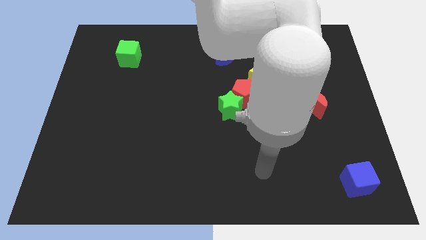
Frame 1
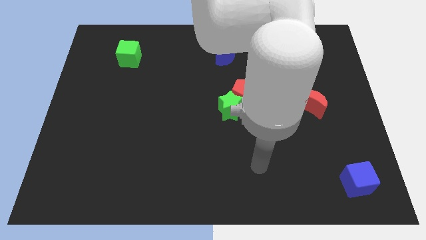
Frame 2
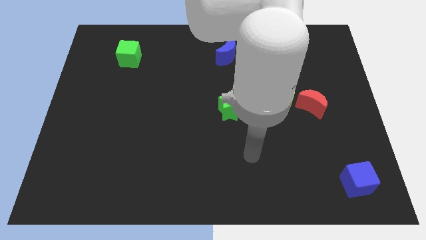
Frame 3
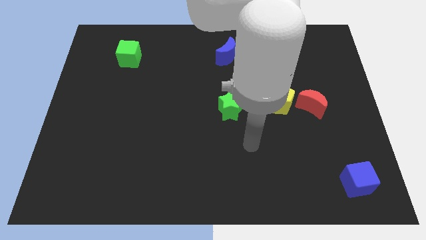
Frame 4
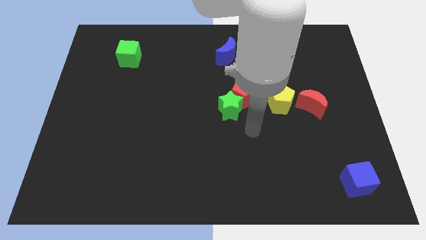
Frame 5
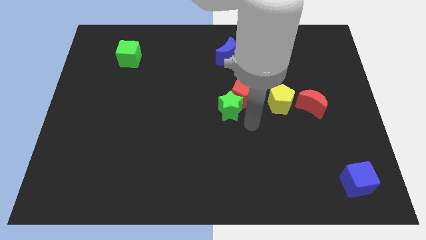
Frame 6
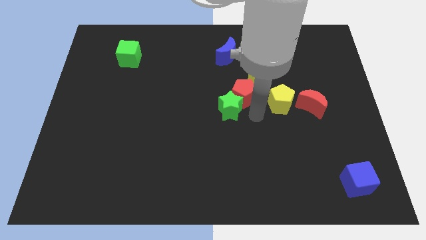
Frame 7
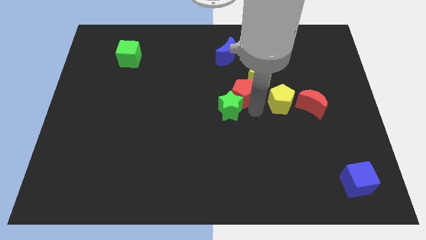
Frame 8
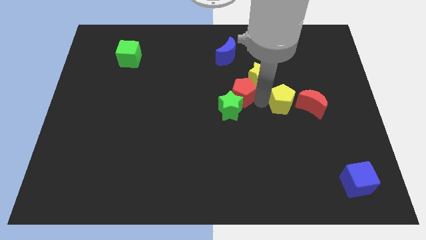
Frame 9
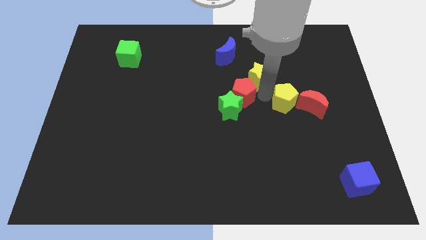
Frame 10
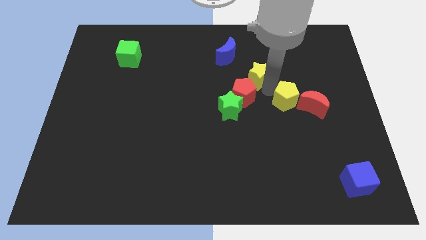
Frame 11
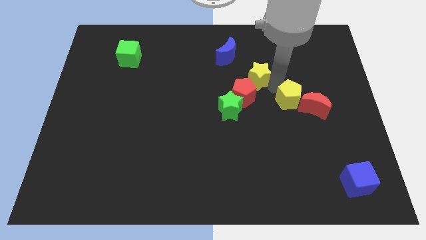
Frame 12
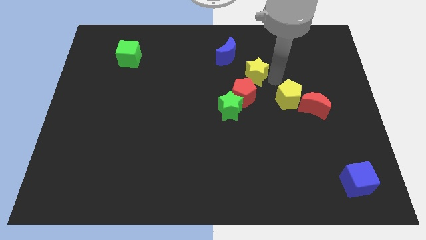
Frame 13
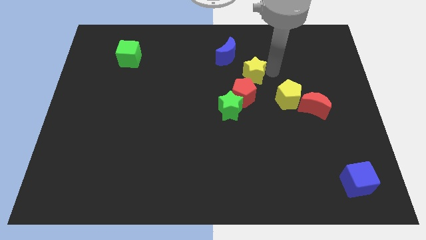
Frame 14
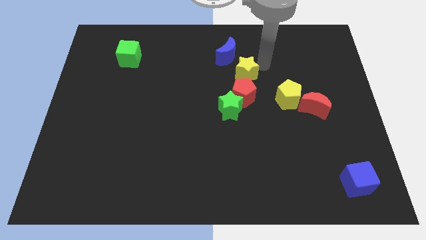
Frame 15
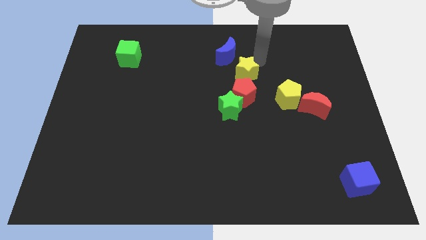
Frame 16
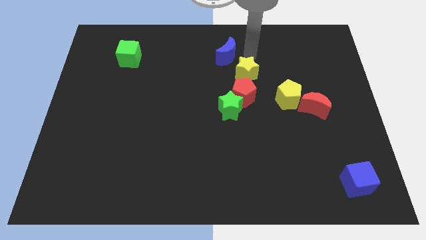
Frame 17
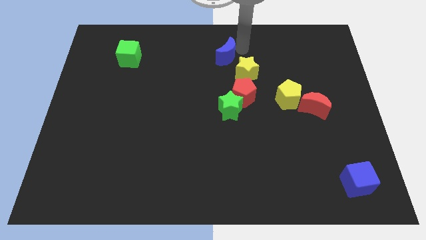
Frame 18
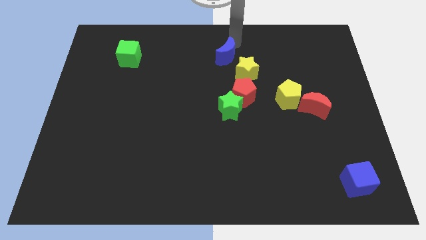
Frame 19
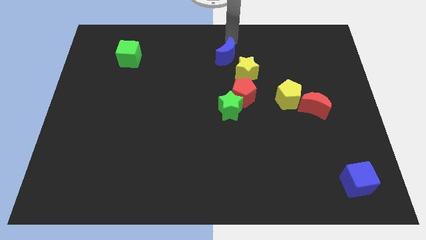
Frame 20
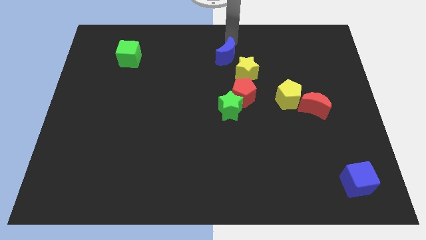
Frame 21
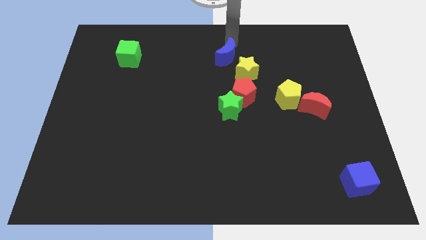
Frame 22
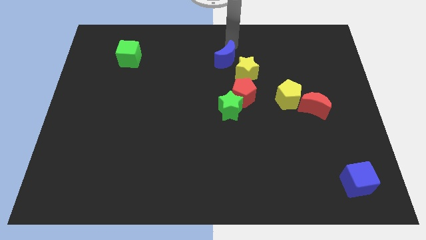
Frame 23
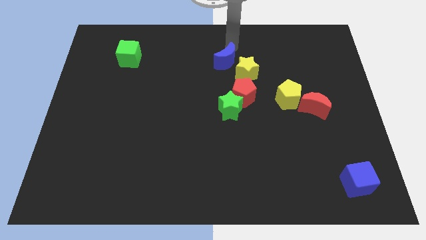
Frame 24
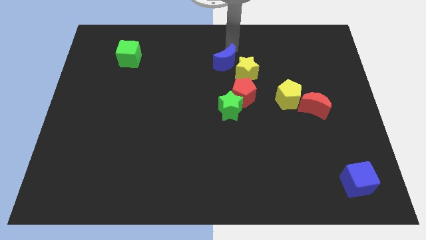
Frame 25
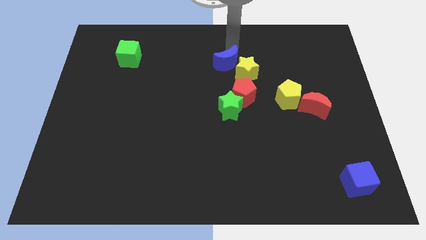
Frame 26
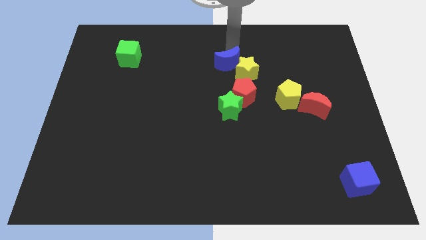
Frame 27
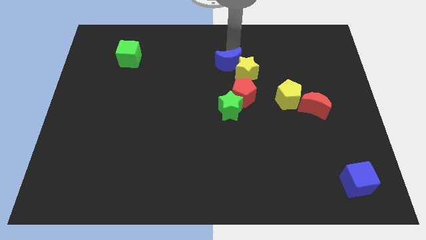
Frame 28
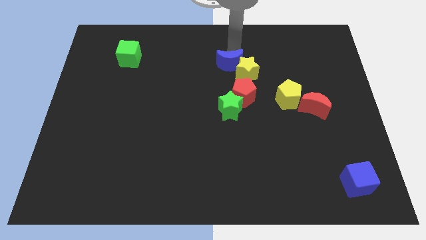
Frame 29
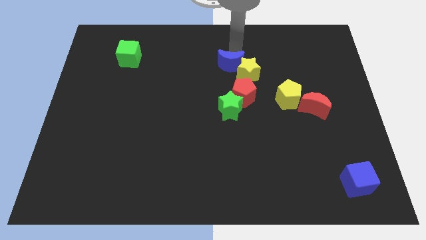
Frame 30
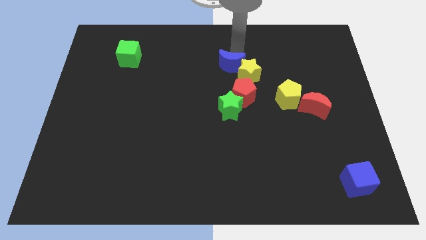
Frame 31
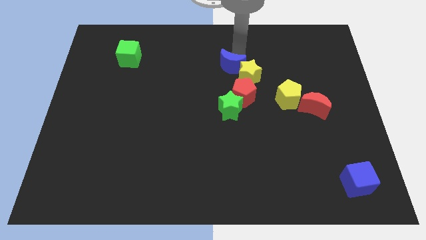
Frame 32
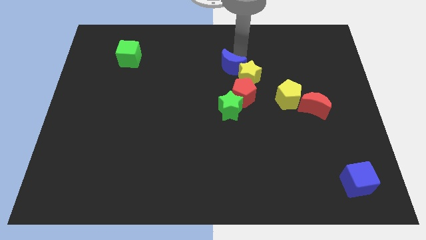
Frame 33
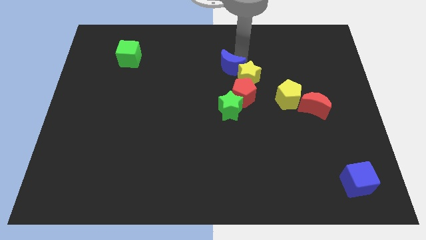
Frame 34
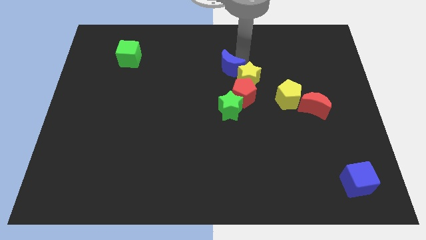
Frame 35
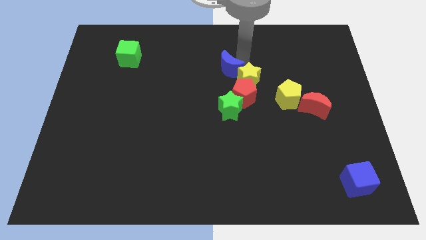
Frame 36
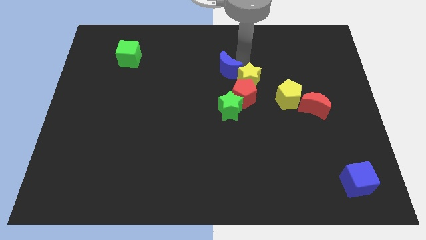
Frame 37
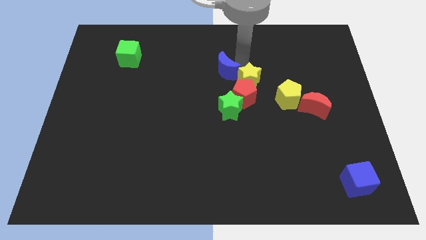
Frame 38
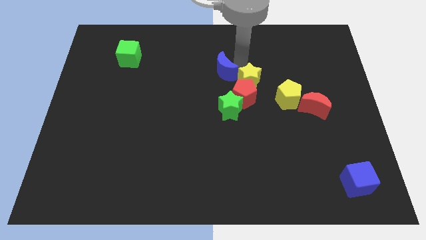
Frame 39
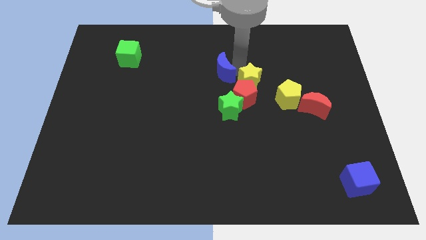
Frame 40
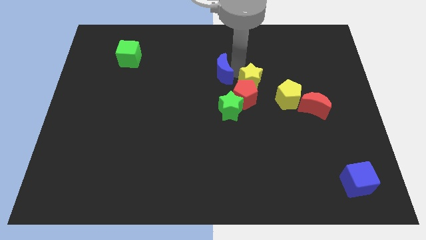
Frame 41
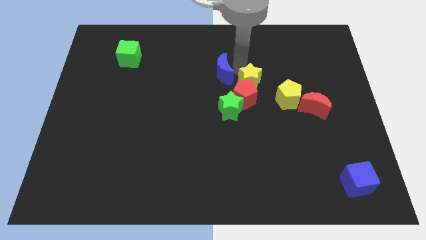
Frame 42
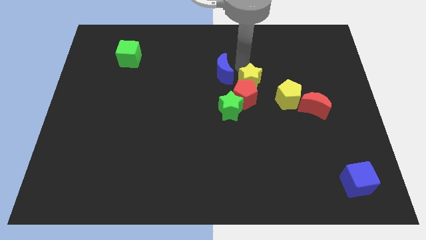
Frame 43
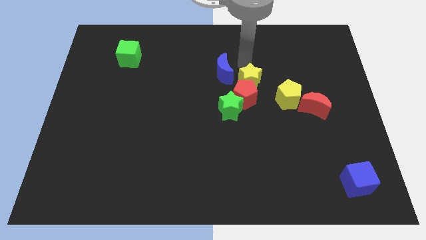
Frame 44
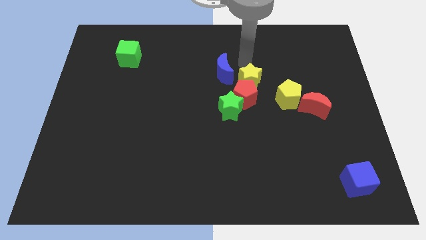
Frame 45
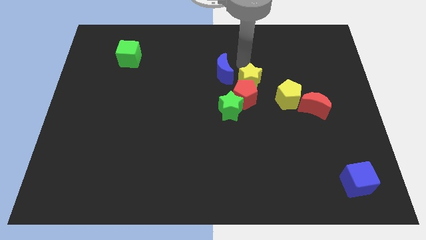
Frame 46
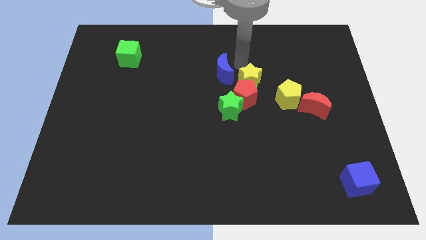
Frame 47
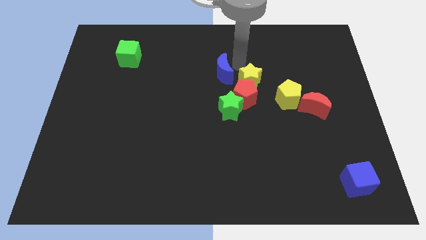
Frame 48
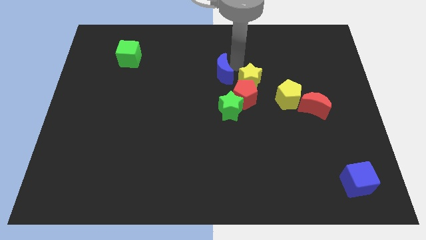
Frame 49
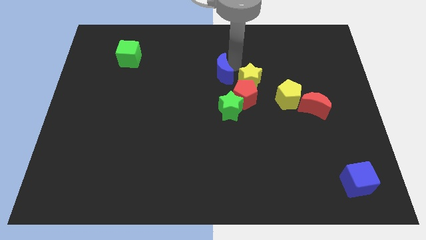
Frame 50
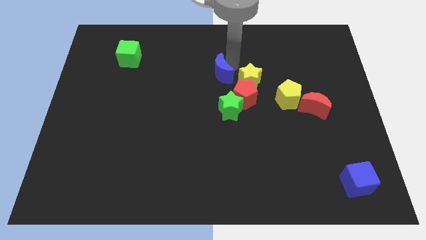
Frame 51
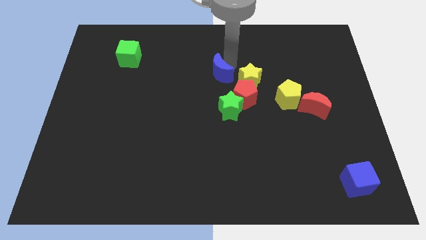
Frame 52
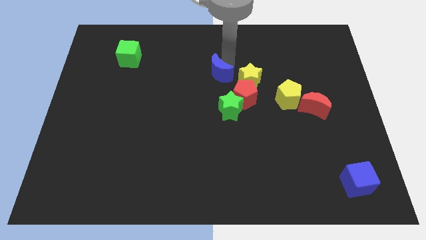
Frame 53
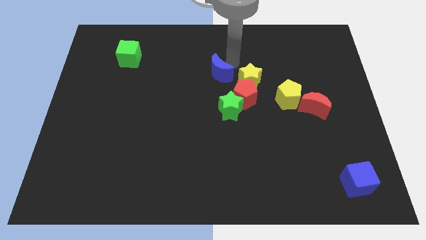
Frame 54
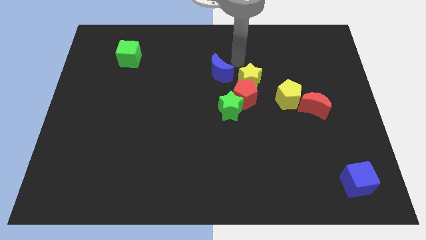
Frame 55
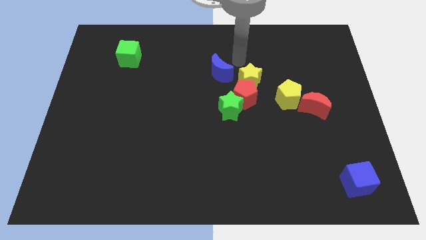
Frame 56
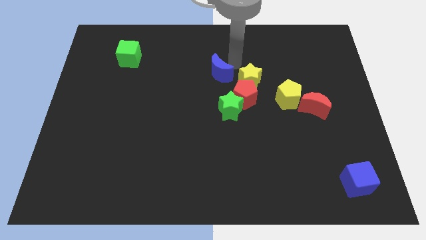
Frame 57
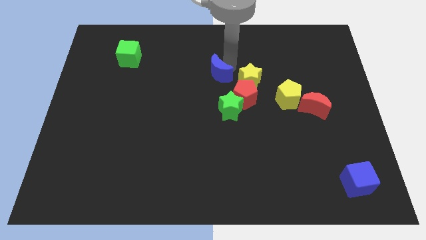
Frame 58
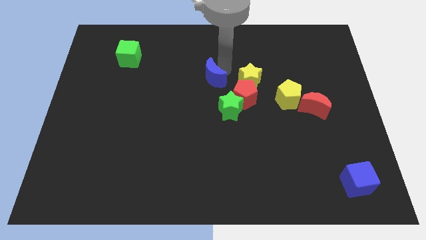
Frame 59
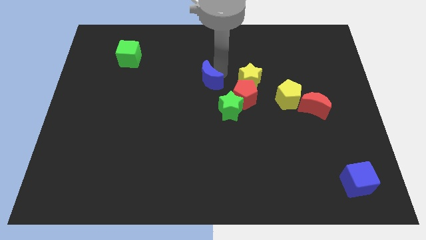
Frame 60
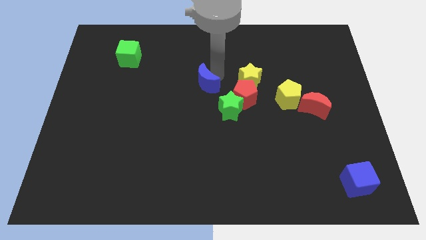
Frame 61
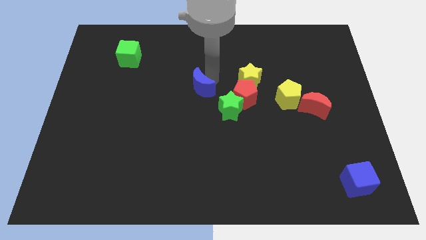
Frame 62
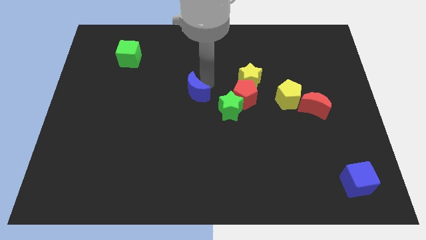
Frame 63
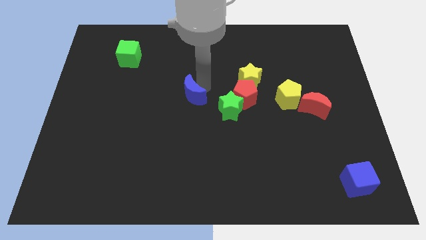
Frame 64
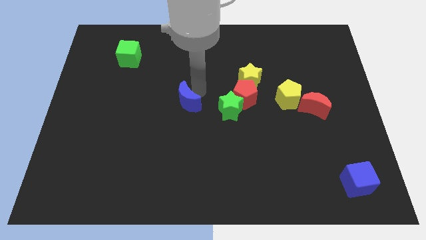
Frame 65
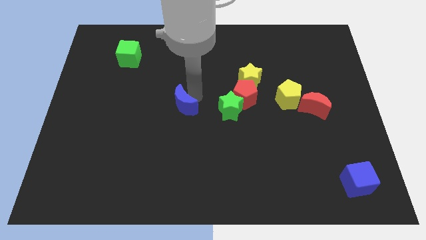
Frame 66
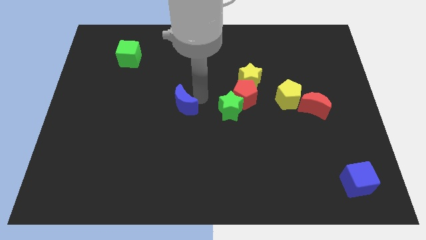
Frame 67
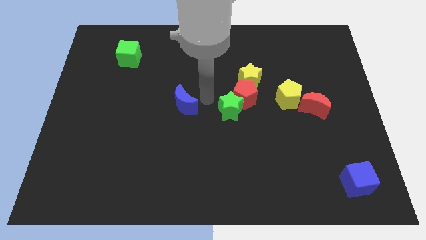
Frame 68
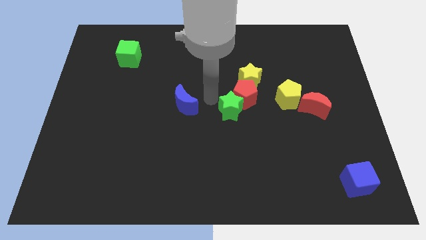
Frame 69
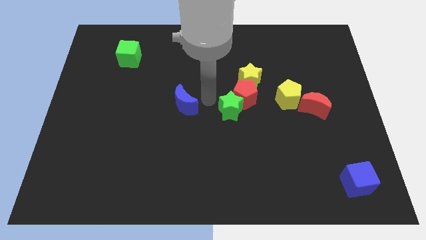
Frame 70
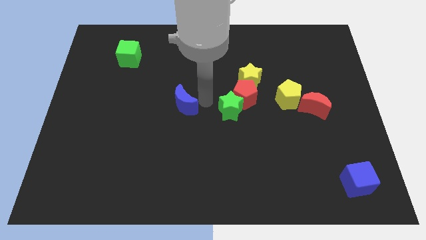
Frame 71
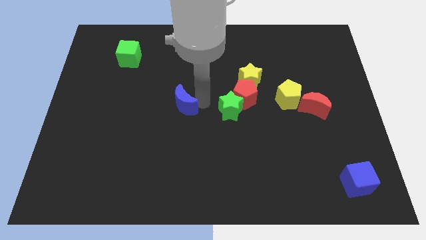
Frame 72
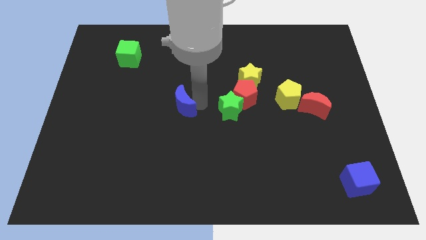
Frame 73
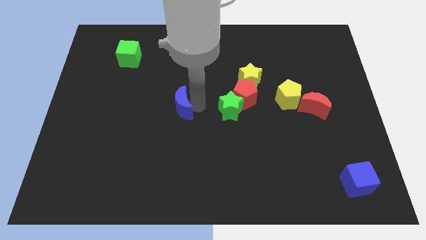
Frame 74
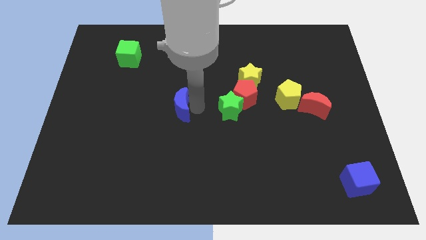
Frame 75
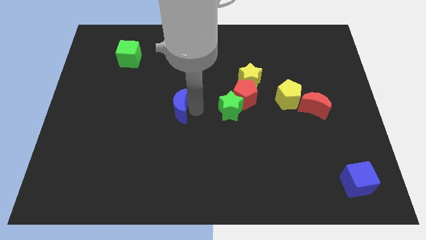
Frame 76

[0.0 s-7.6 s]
move the blue moon diagonally downwards and to the left

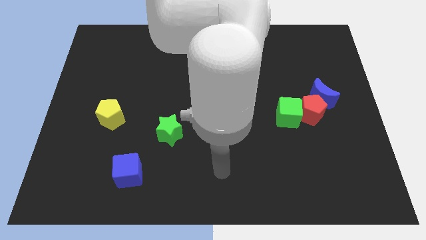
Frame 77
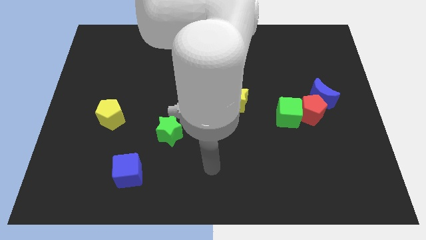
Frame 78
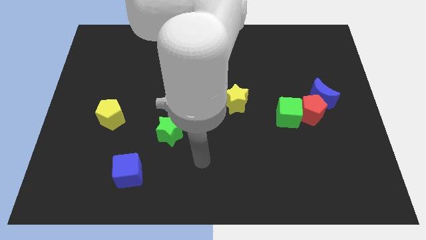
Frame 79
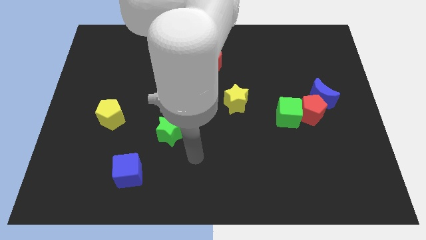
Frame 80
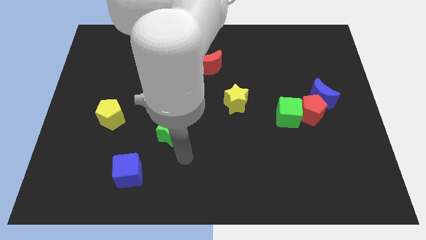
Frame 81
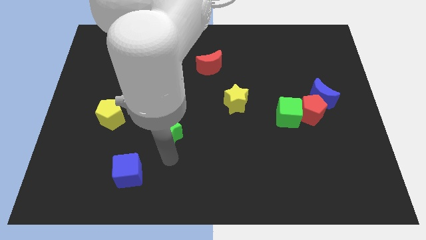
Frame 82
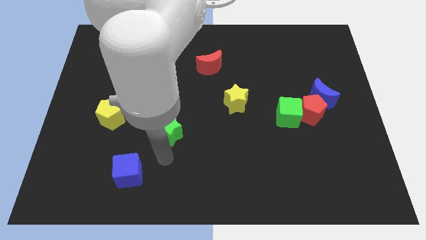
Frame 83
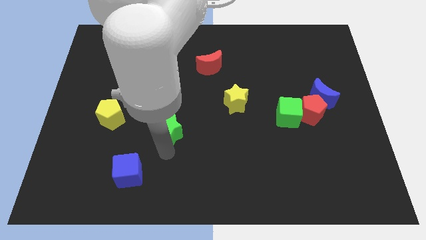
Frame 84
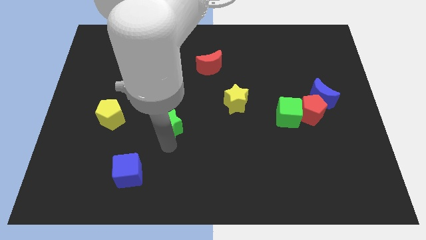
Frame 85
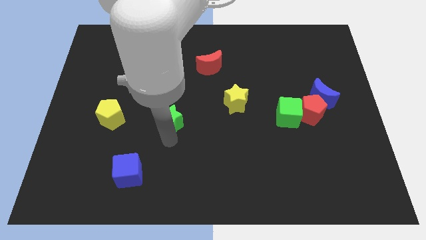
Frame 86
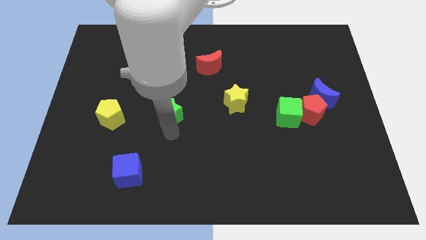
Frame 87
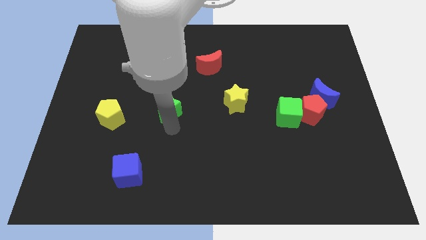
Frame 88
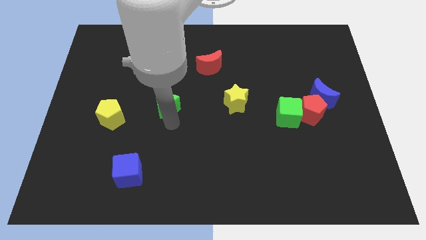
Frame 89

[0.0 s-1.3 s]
slightly push the green star upwards
